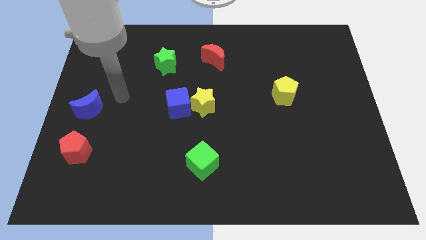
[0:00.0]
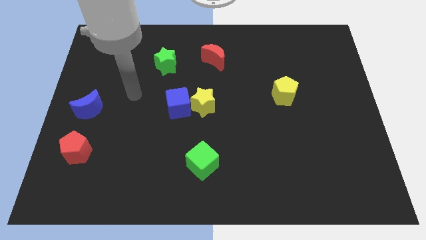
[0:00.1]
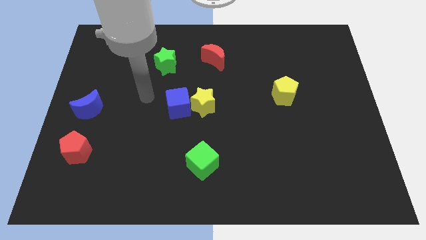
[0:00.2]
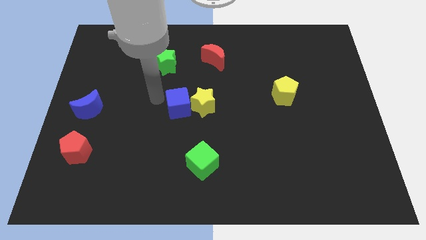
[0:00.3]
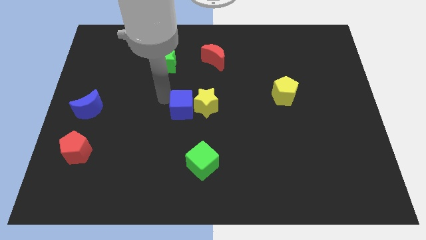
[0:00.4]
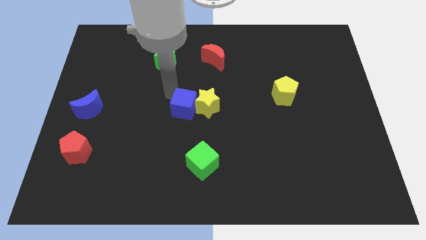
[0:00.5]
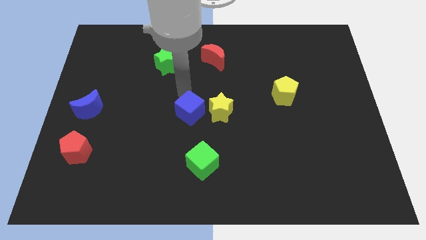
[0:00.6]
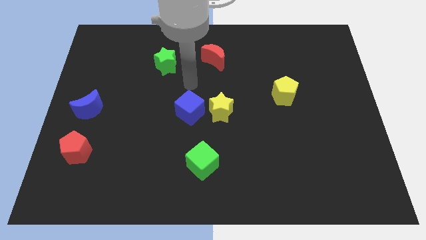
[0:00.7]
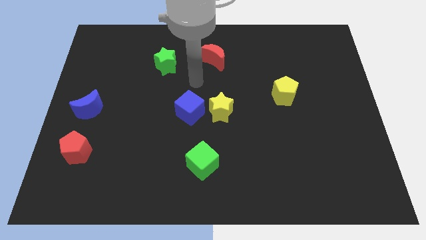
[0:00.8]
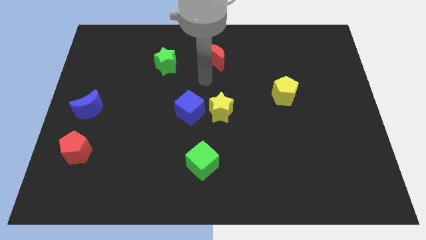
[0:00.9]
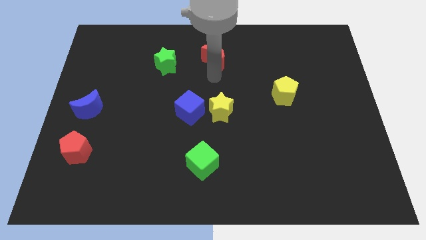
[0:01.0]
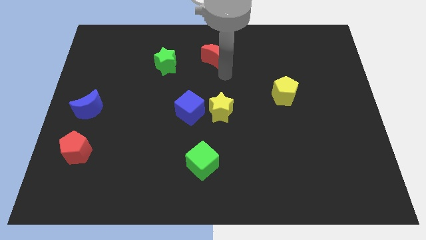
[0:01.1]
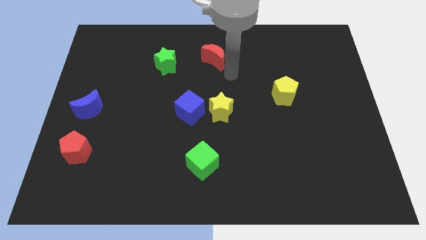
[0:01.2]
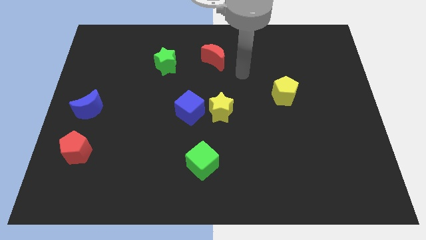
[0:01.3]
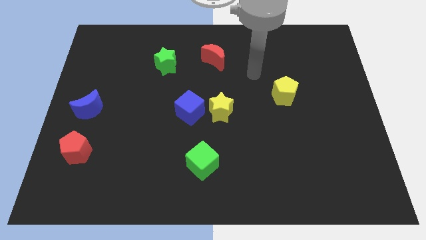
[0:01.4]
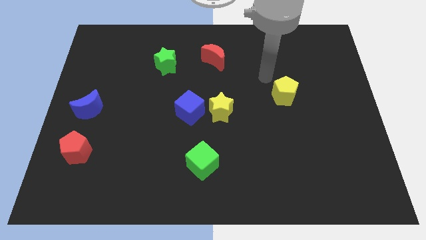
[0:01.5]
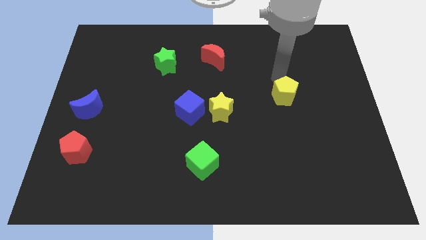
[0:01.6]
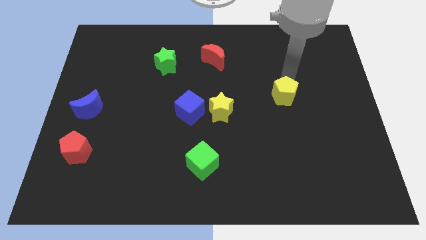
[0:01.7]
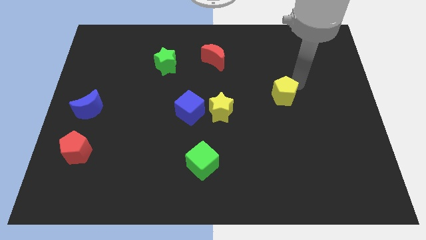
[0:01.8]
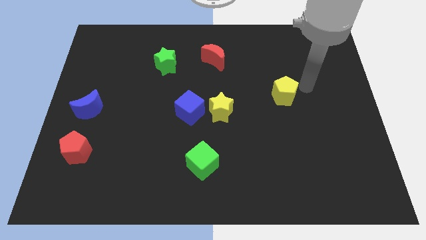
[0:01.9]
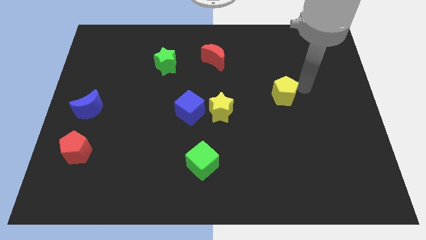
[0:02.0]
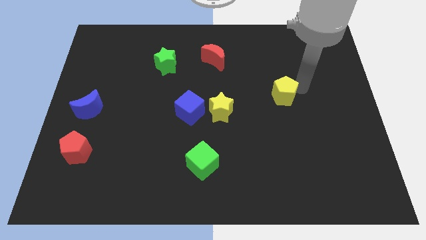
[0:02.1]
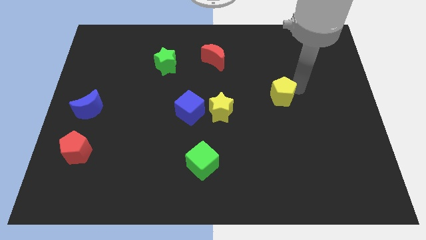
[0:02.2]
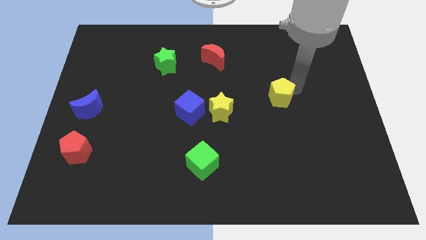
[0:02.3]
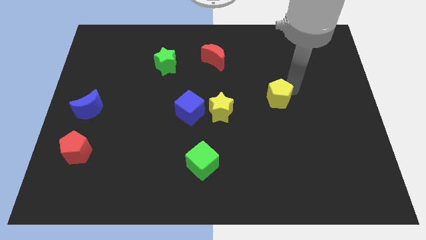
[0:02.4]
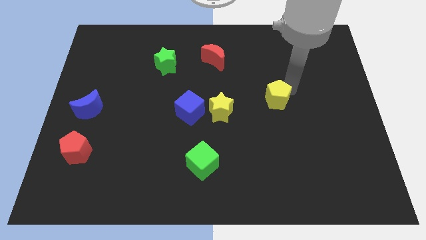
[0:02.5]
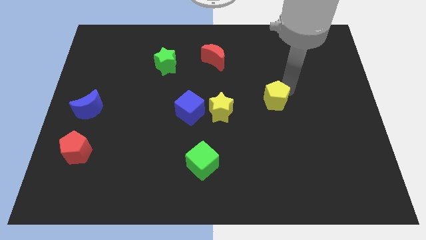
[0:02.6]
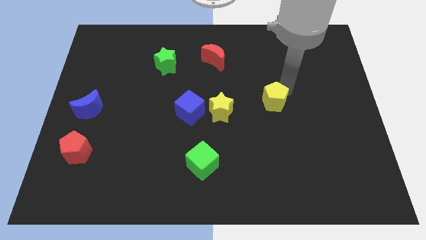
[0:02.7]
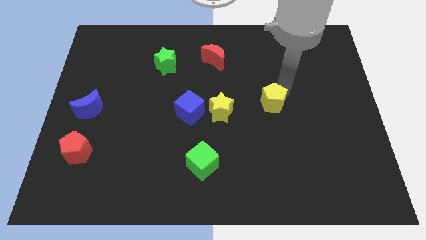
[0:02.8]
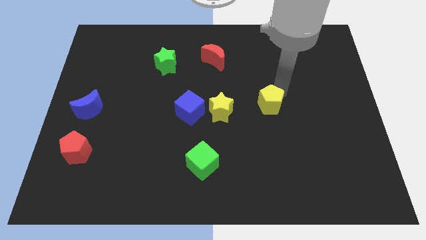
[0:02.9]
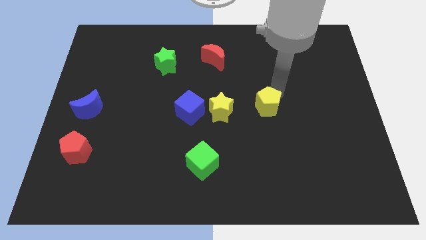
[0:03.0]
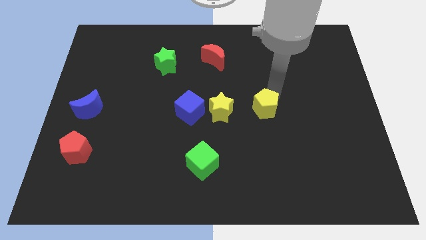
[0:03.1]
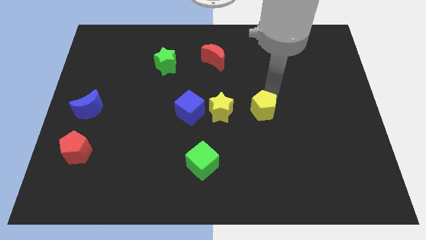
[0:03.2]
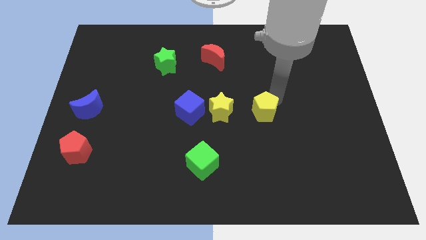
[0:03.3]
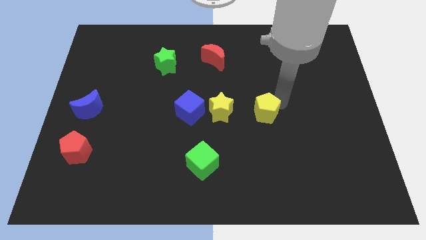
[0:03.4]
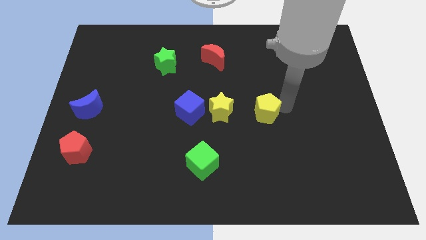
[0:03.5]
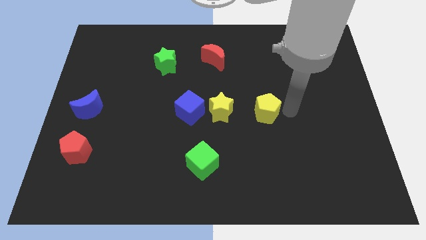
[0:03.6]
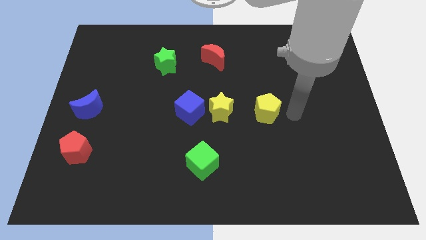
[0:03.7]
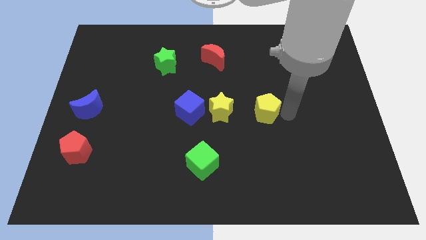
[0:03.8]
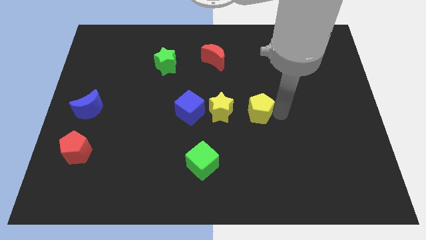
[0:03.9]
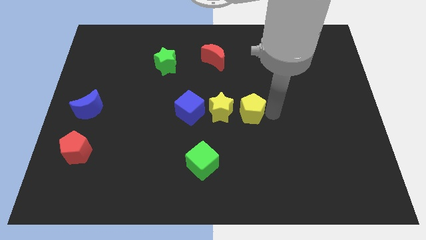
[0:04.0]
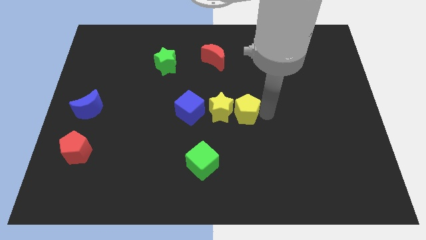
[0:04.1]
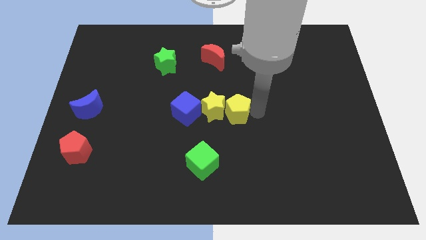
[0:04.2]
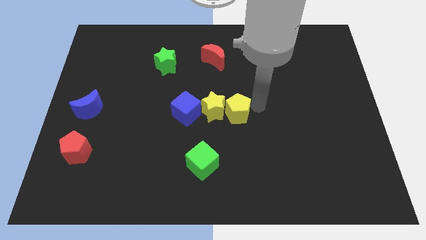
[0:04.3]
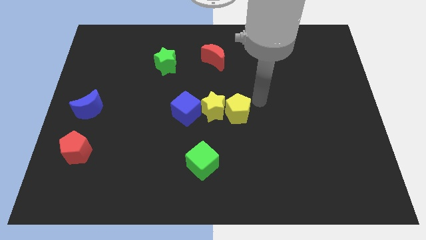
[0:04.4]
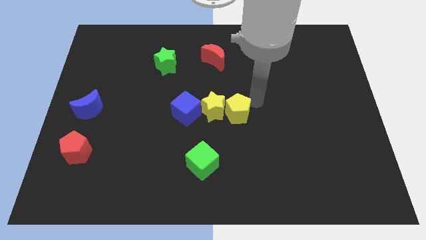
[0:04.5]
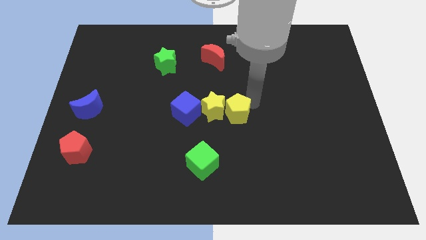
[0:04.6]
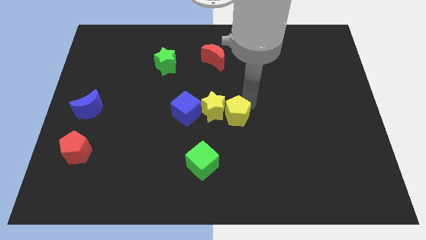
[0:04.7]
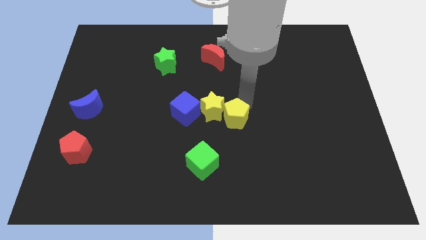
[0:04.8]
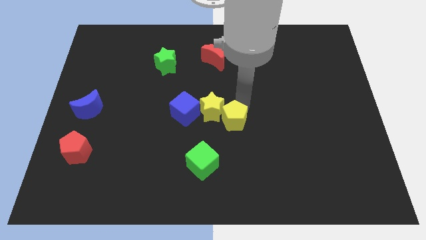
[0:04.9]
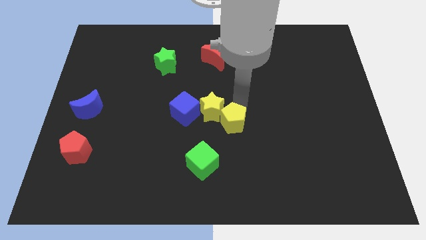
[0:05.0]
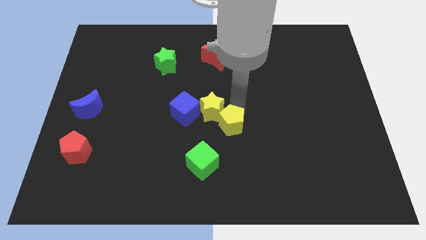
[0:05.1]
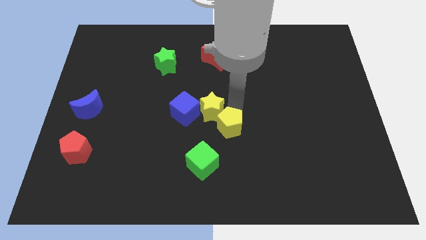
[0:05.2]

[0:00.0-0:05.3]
push the yellow pentagon to the bottom right of the blue cube

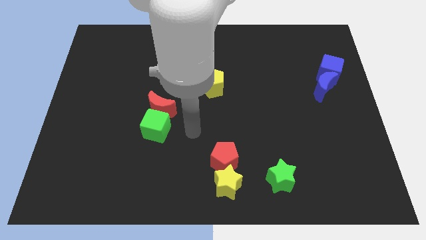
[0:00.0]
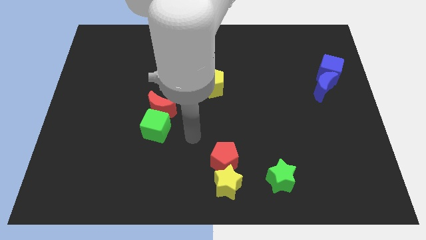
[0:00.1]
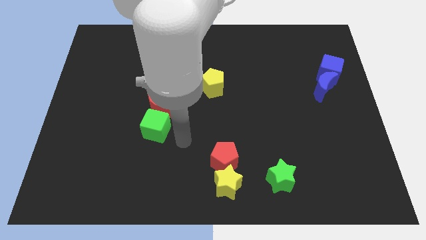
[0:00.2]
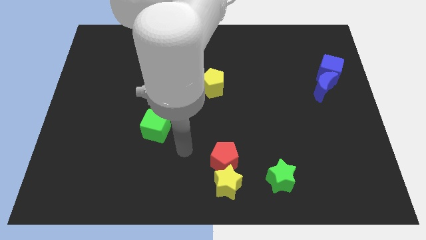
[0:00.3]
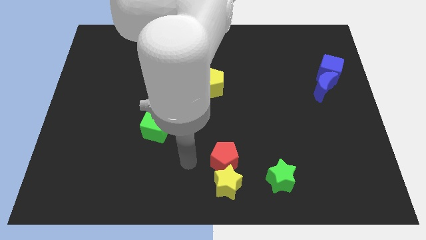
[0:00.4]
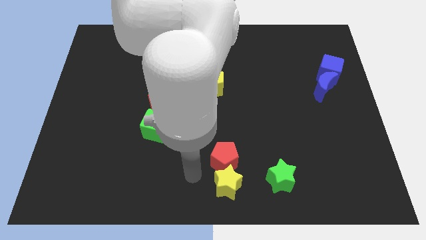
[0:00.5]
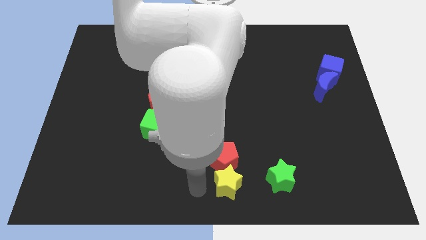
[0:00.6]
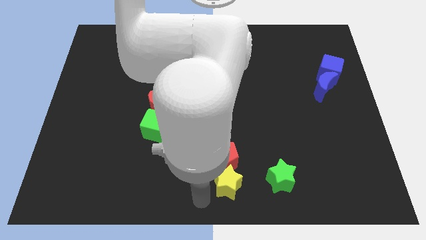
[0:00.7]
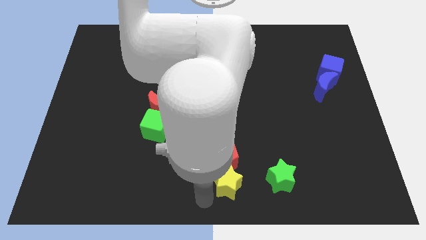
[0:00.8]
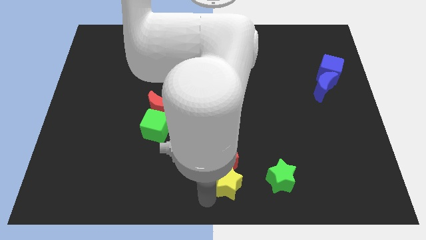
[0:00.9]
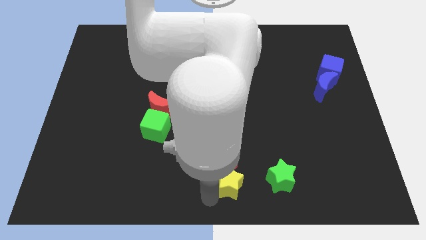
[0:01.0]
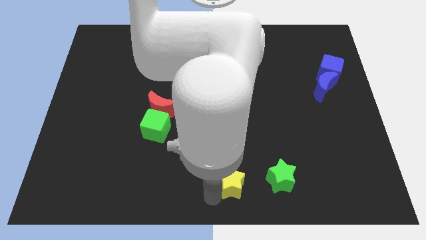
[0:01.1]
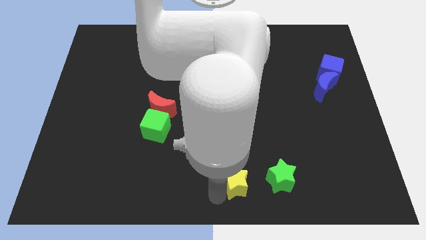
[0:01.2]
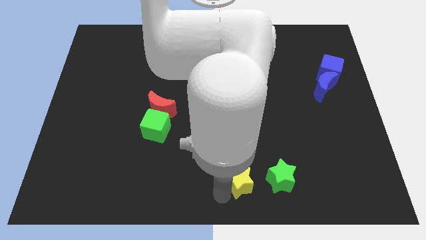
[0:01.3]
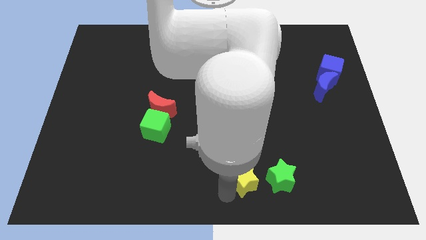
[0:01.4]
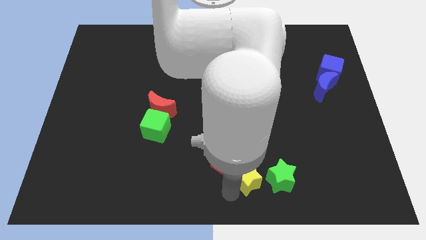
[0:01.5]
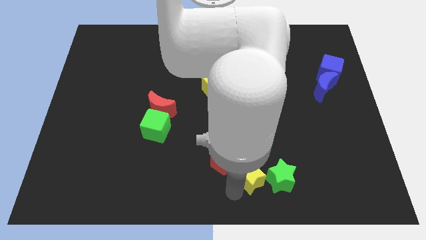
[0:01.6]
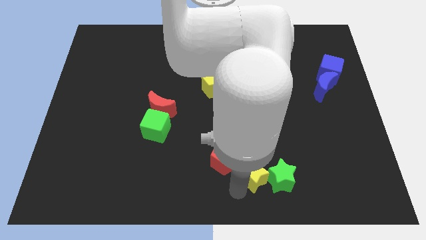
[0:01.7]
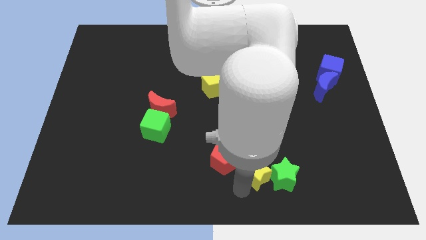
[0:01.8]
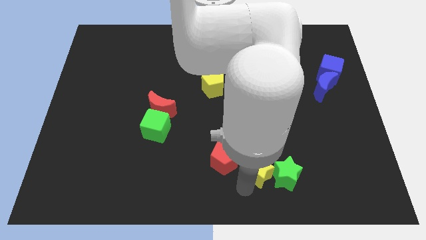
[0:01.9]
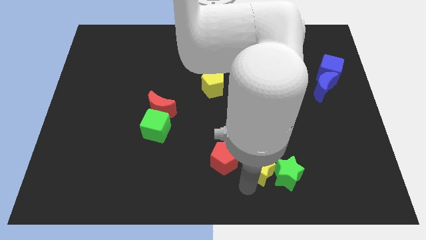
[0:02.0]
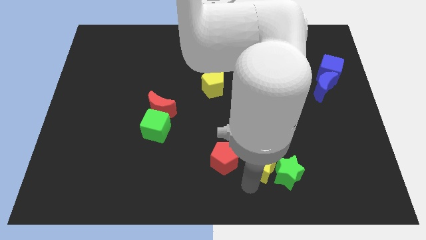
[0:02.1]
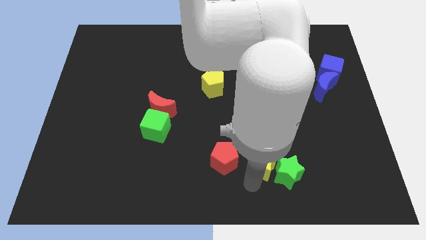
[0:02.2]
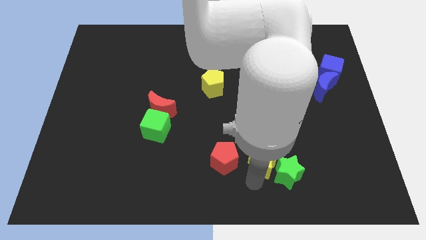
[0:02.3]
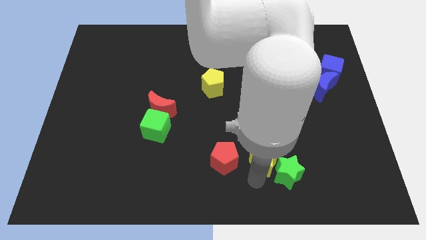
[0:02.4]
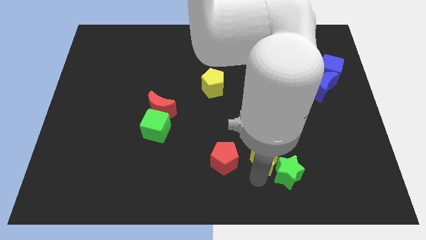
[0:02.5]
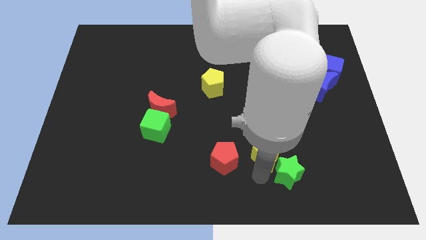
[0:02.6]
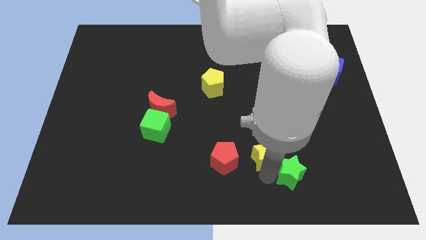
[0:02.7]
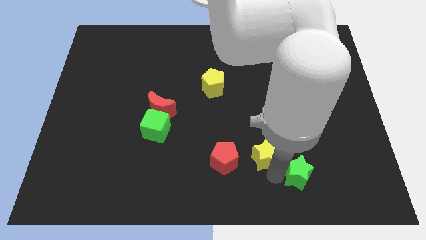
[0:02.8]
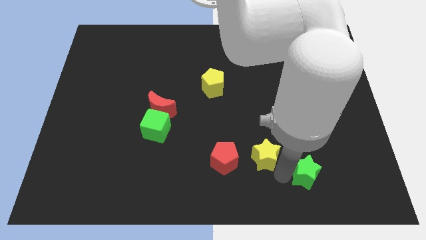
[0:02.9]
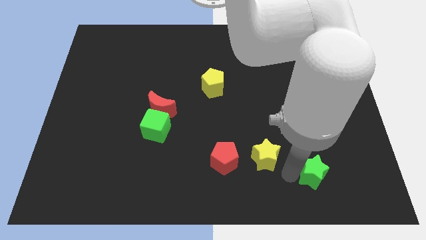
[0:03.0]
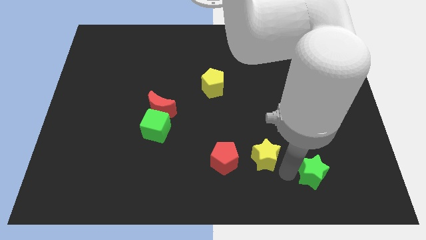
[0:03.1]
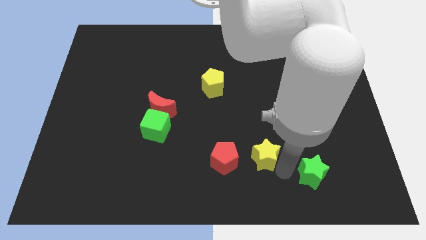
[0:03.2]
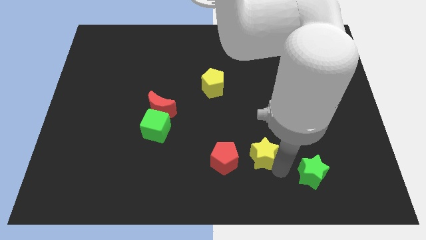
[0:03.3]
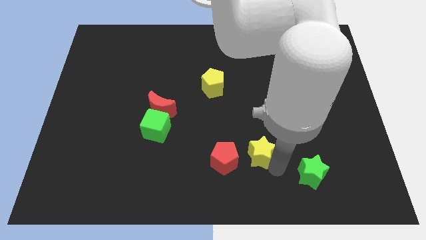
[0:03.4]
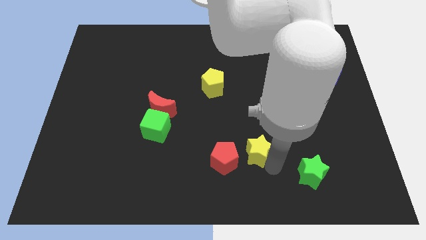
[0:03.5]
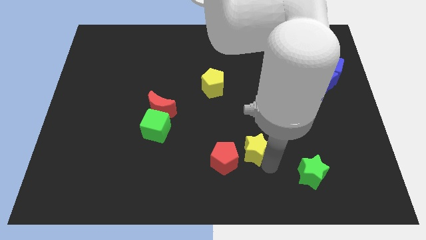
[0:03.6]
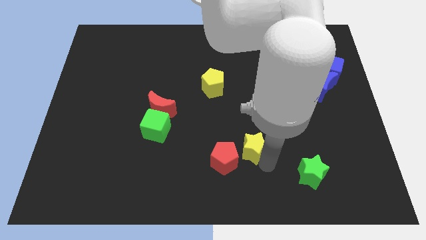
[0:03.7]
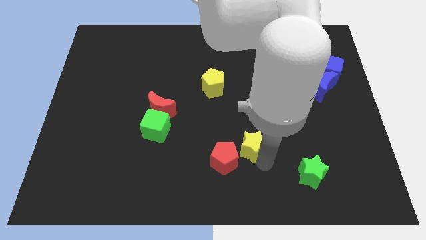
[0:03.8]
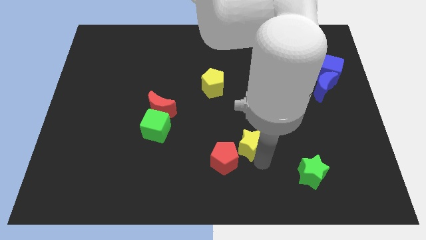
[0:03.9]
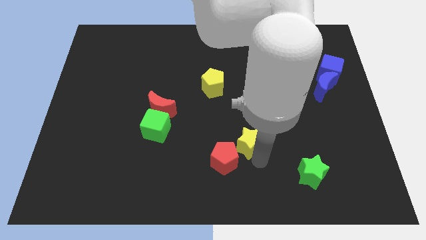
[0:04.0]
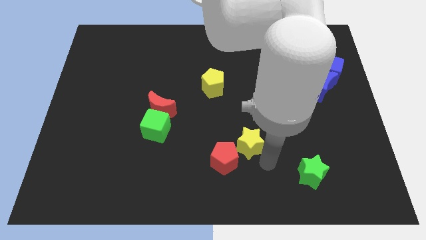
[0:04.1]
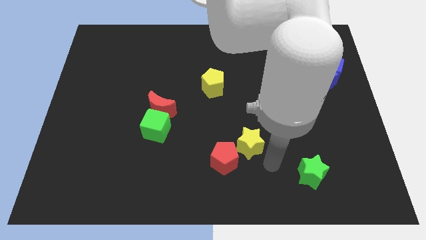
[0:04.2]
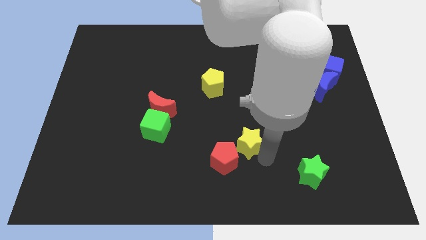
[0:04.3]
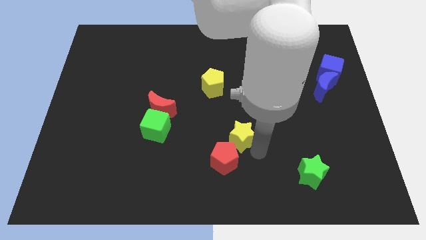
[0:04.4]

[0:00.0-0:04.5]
slide the yellow star to the top side of the red pentagon
